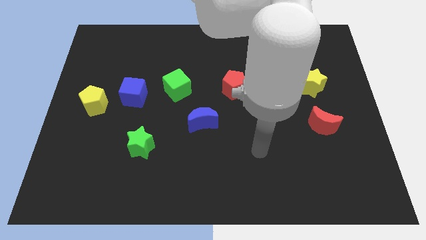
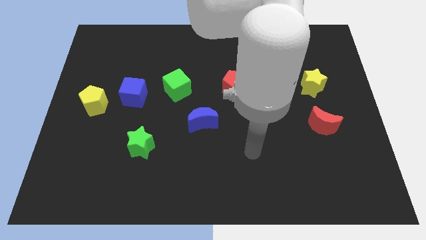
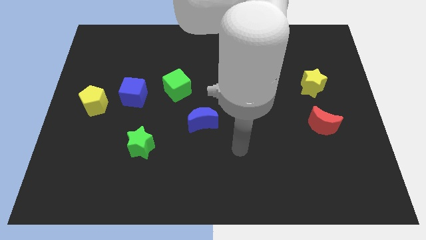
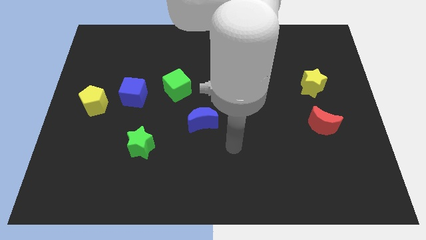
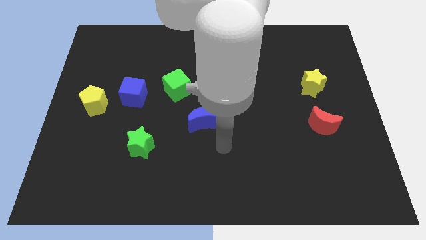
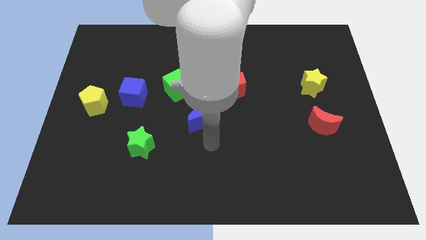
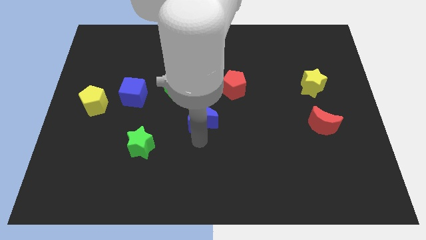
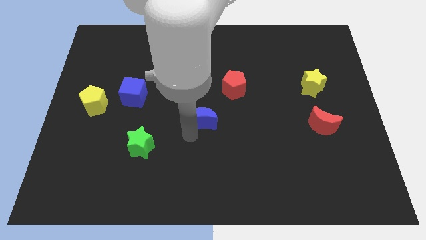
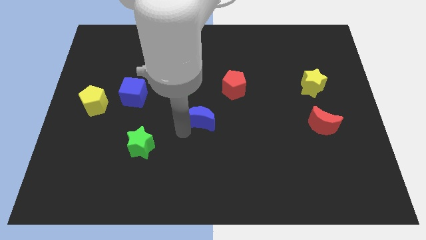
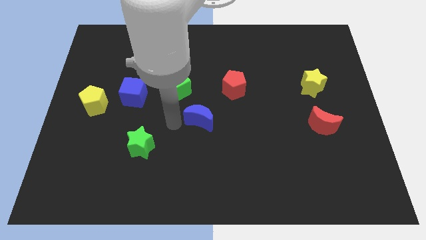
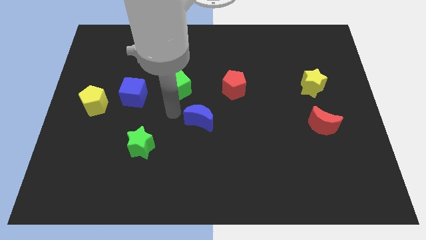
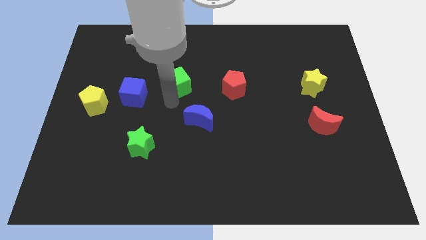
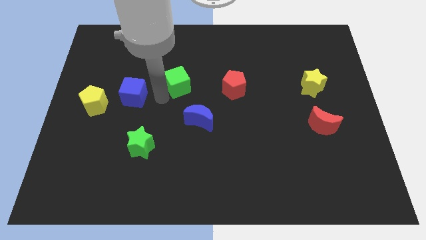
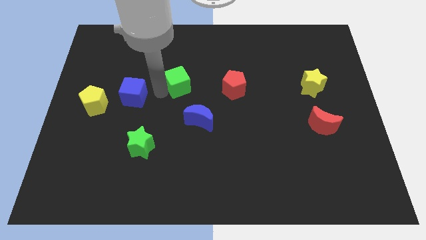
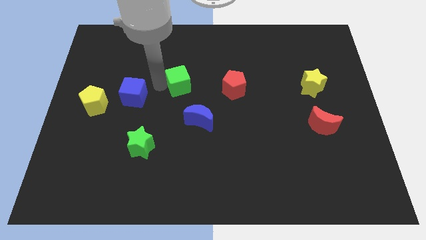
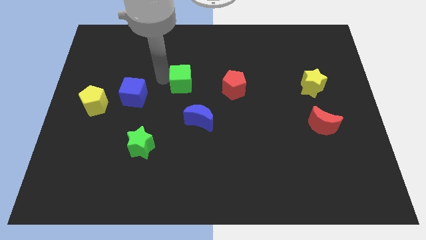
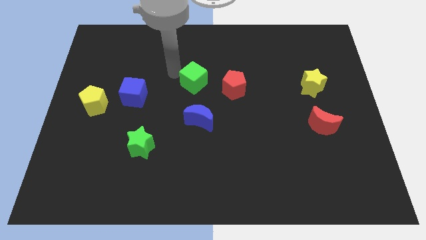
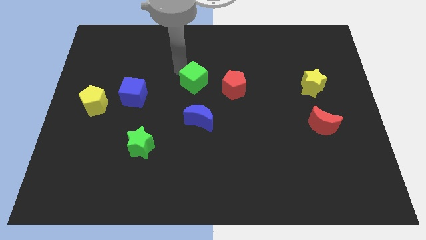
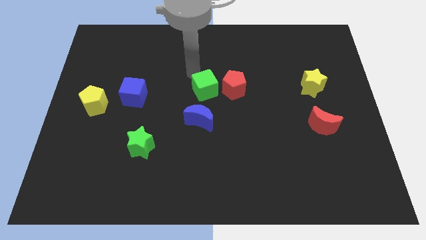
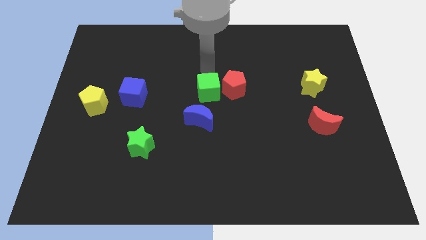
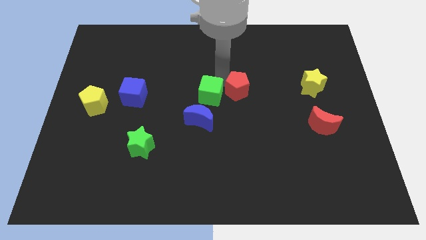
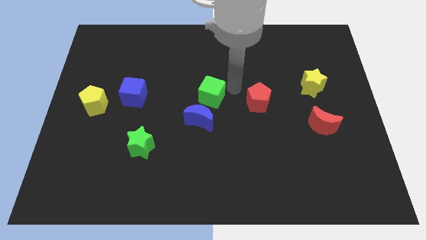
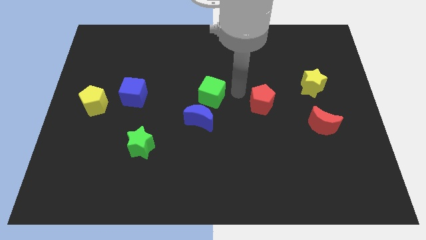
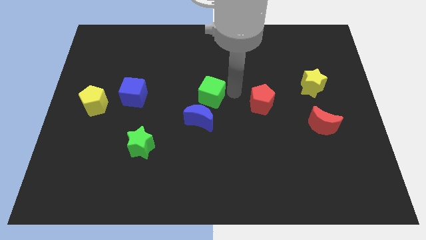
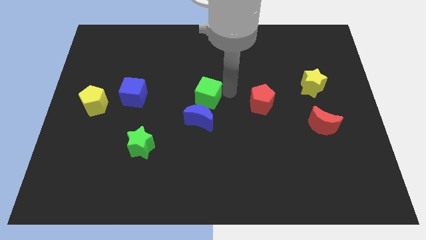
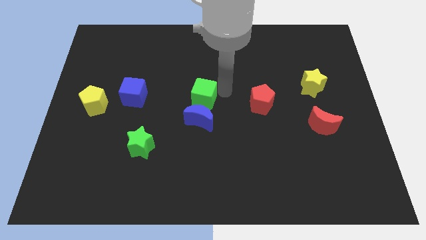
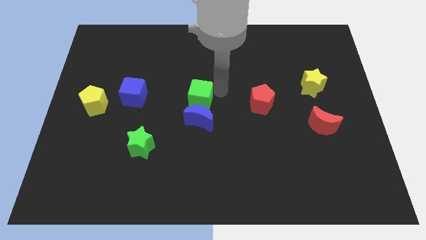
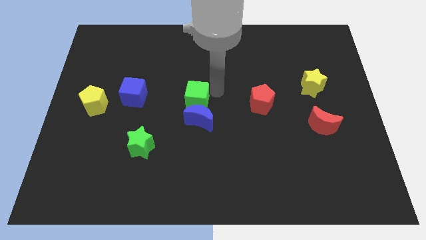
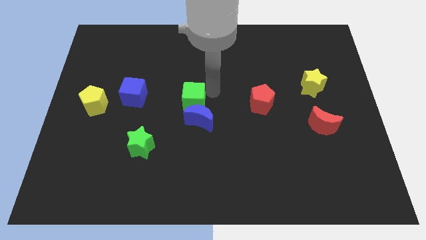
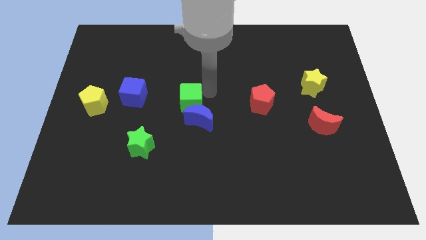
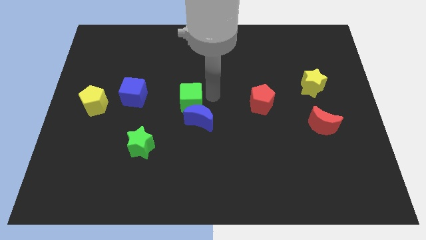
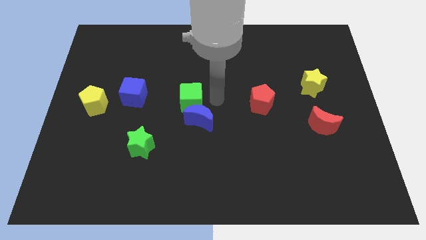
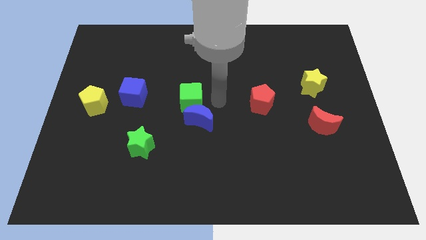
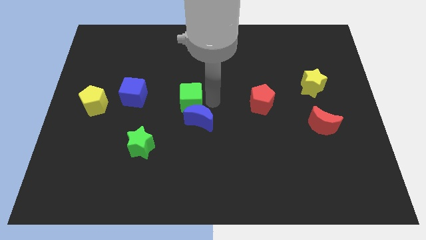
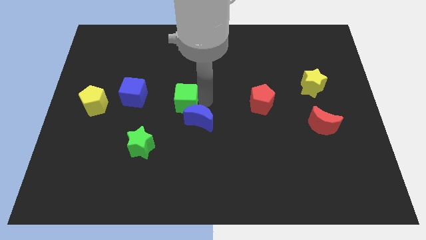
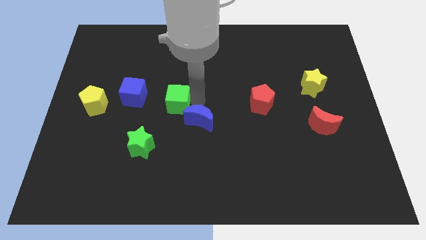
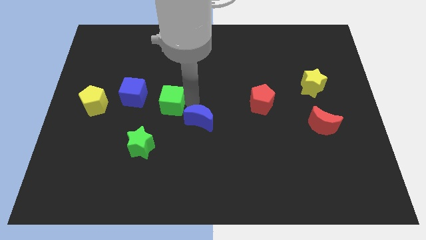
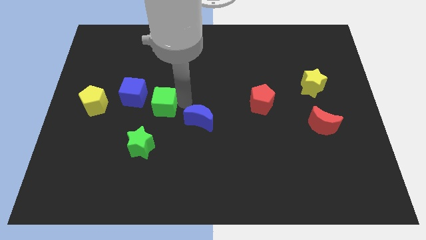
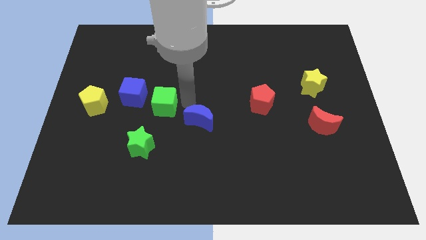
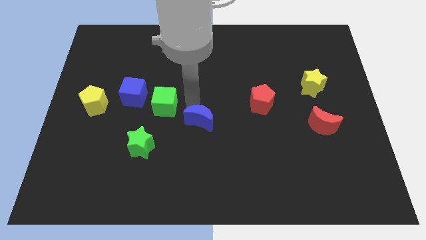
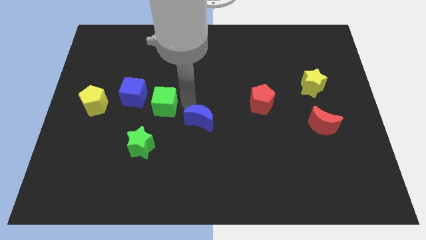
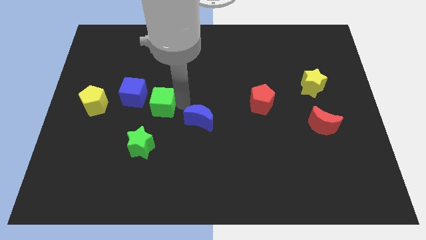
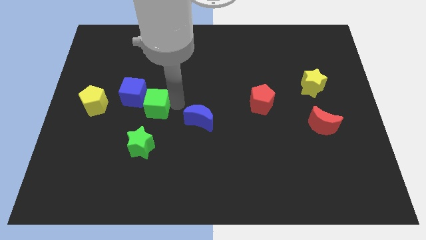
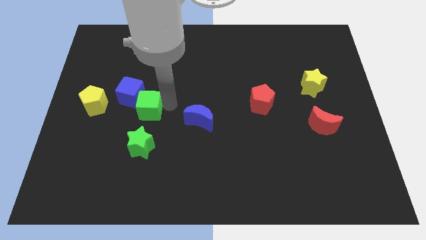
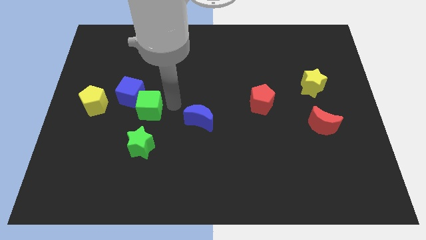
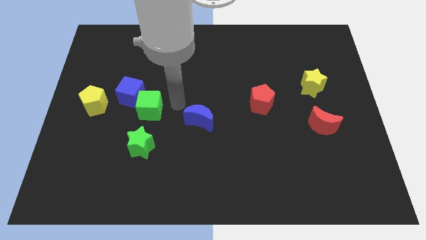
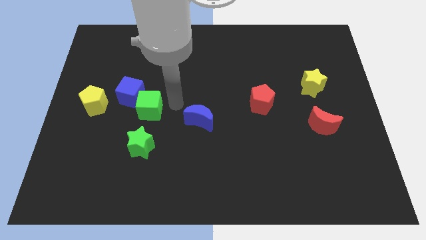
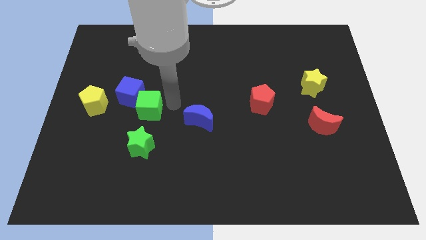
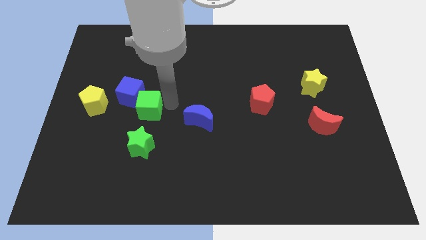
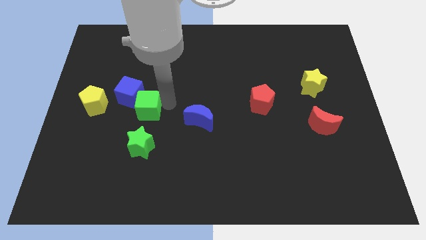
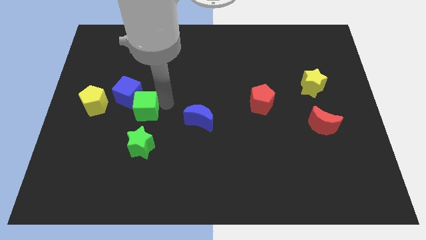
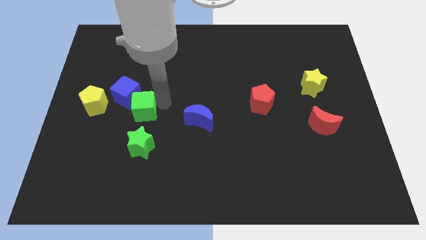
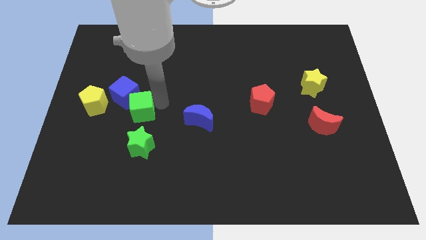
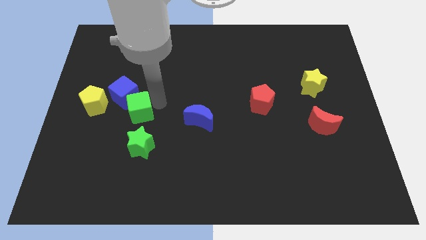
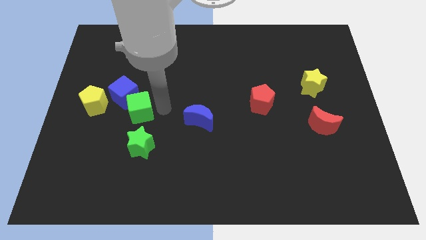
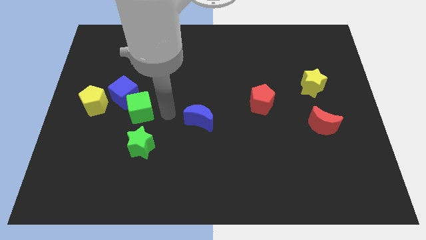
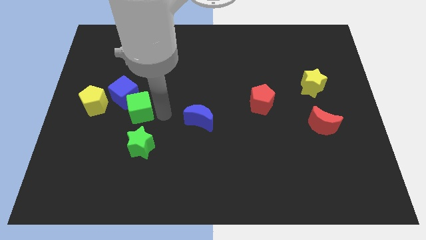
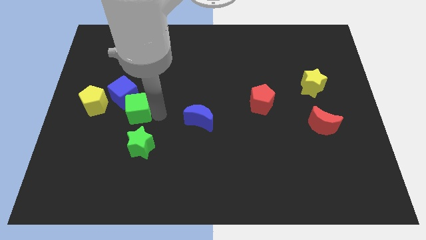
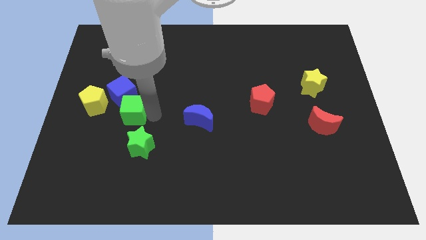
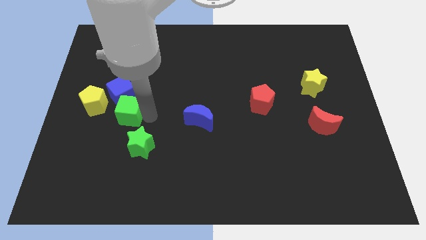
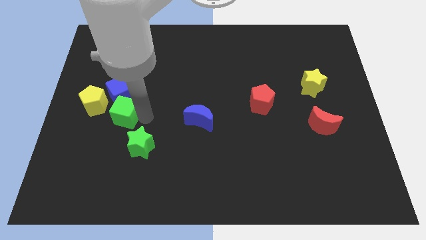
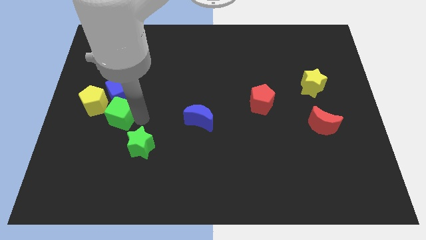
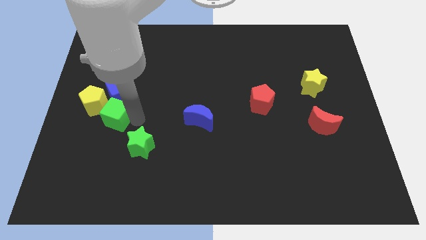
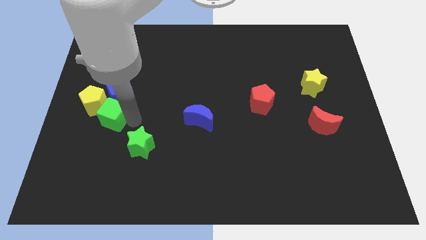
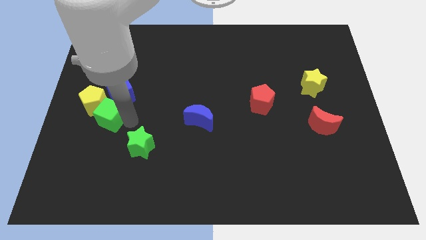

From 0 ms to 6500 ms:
move the green cube next to the yellow pentagon
